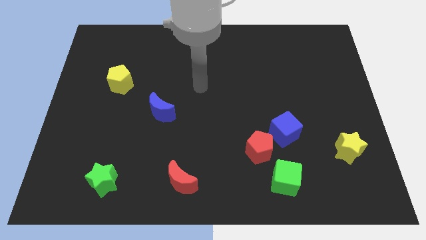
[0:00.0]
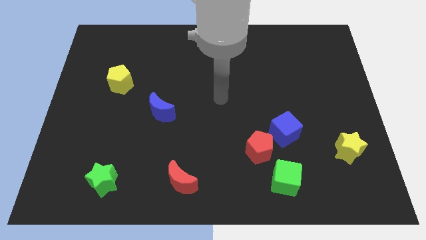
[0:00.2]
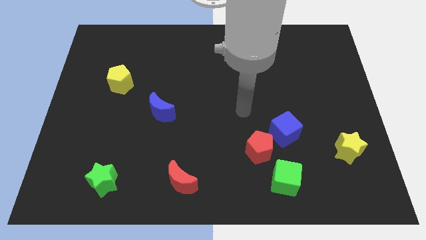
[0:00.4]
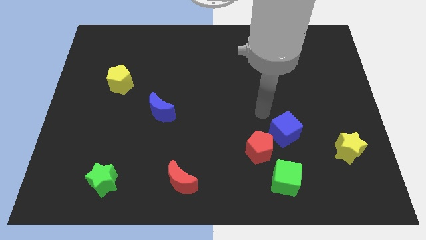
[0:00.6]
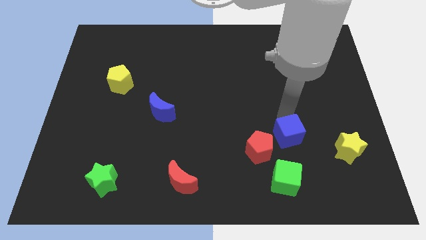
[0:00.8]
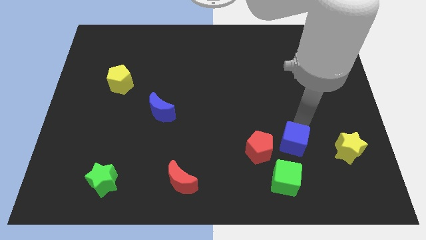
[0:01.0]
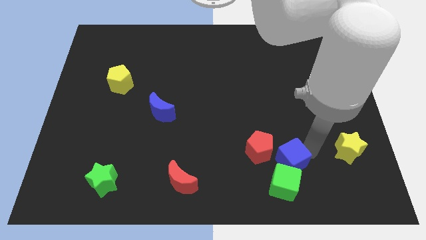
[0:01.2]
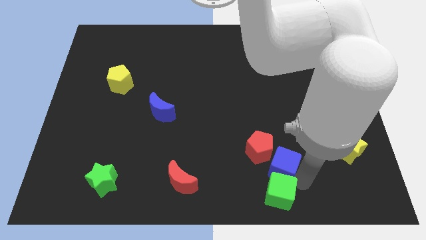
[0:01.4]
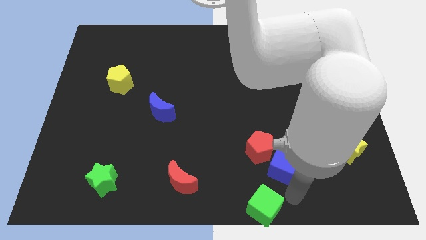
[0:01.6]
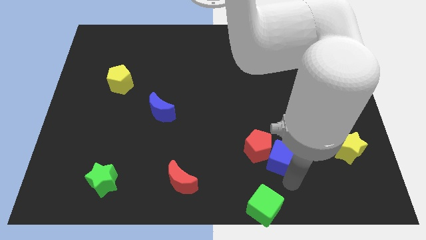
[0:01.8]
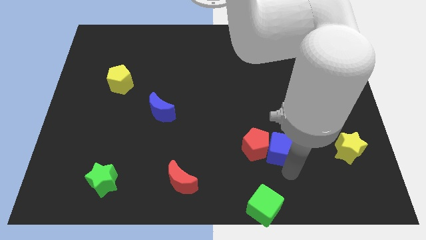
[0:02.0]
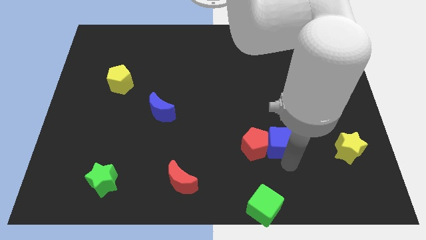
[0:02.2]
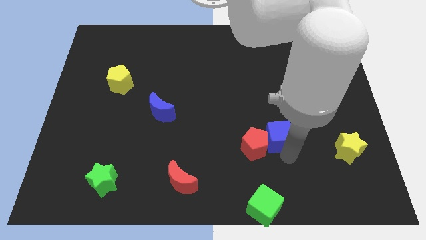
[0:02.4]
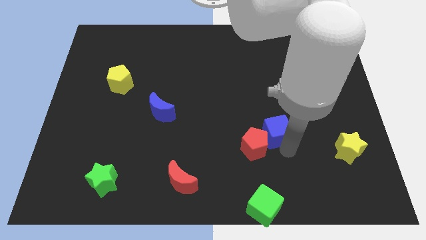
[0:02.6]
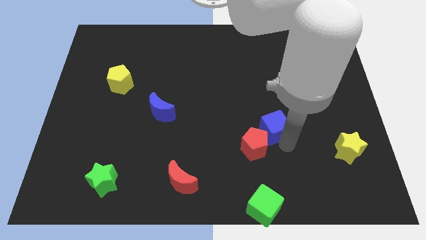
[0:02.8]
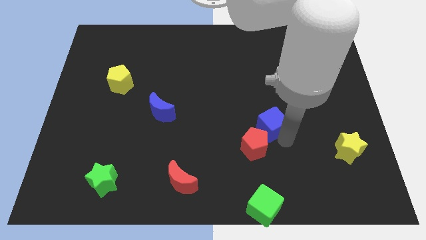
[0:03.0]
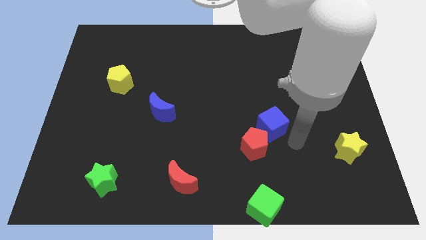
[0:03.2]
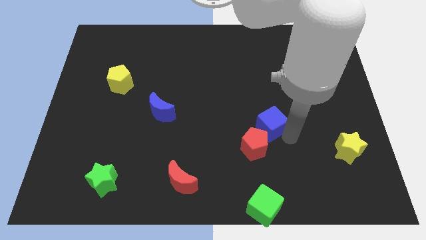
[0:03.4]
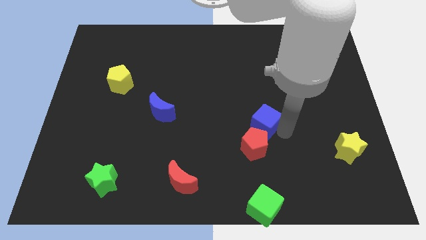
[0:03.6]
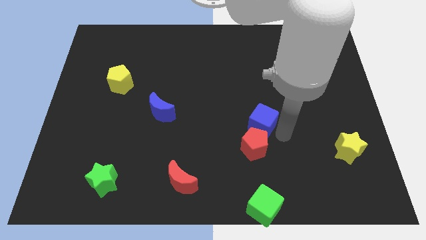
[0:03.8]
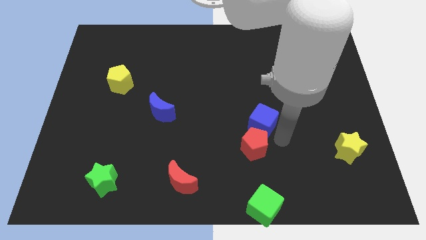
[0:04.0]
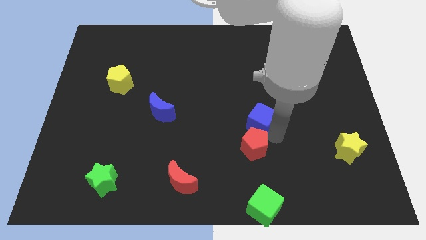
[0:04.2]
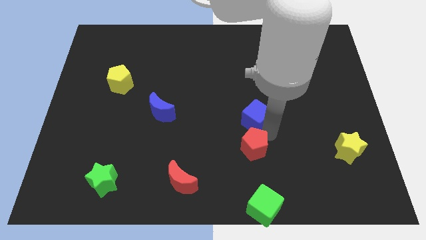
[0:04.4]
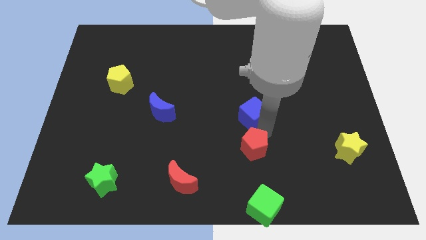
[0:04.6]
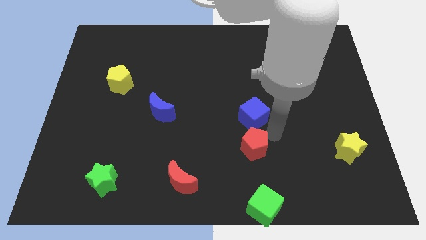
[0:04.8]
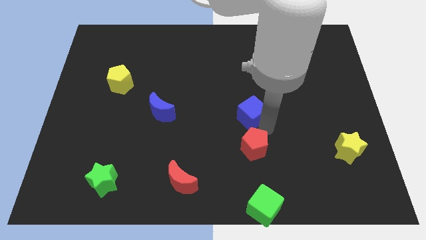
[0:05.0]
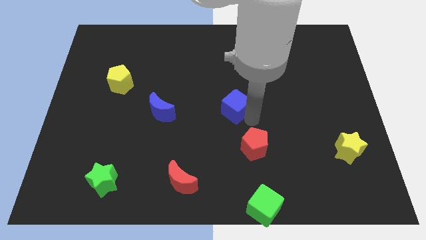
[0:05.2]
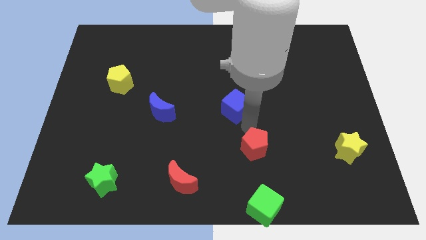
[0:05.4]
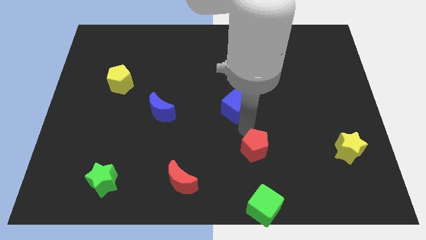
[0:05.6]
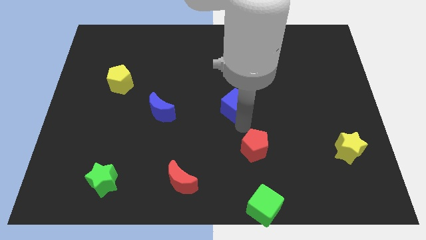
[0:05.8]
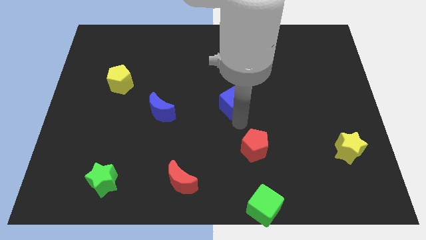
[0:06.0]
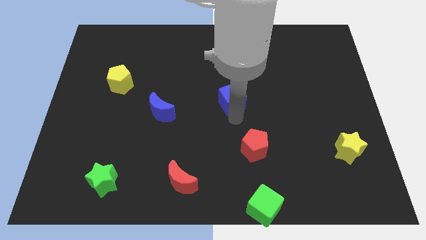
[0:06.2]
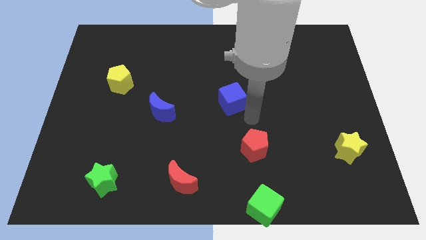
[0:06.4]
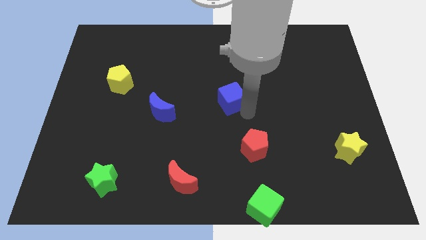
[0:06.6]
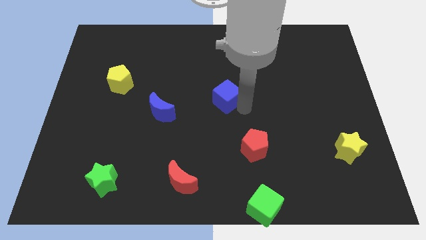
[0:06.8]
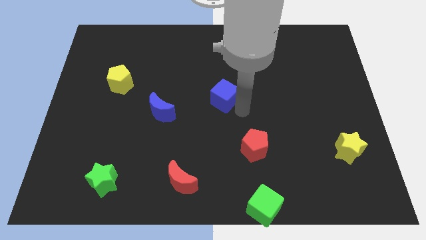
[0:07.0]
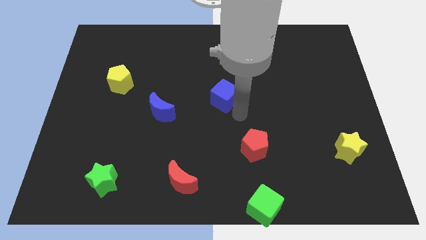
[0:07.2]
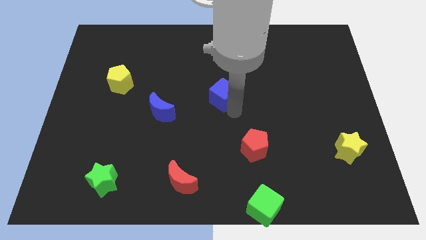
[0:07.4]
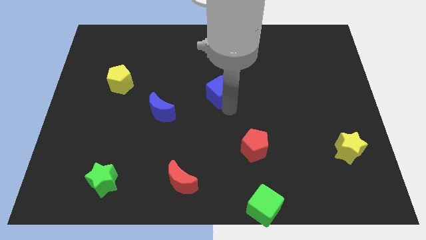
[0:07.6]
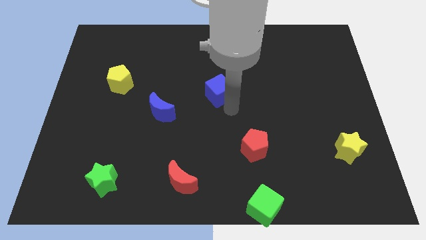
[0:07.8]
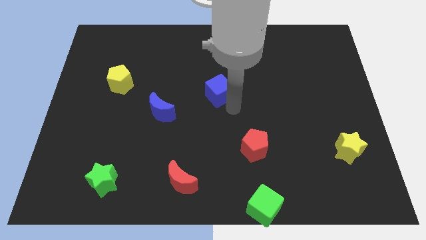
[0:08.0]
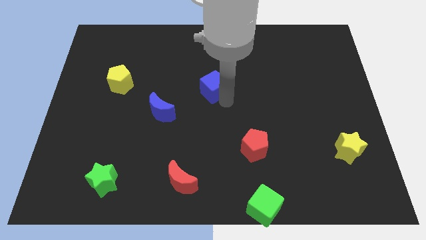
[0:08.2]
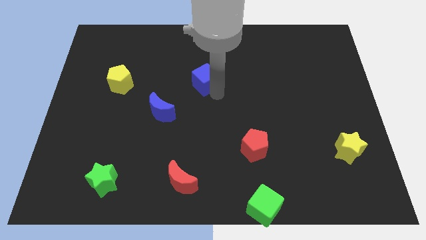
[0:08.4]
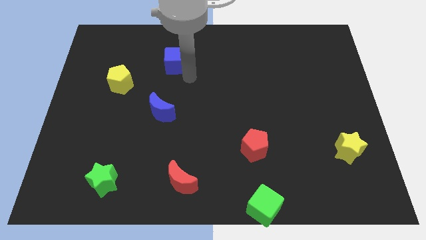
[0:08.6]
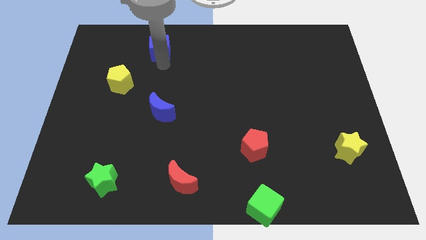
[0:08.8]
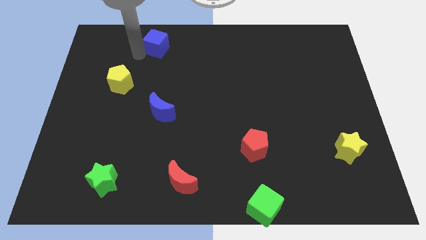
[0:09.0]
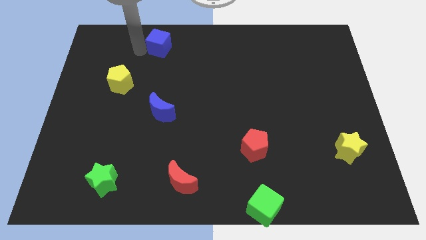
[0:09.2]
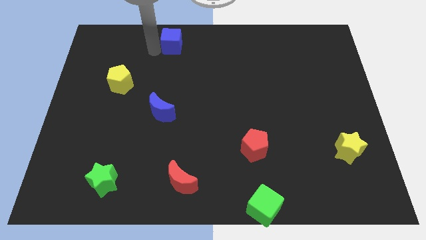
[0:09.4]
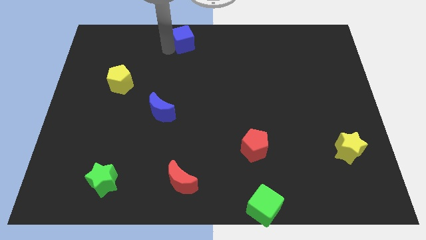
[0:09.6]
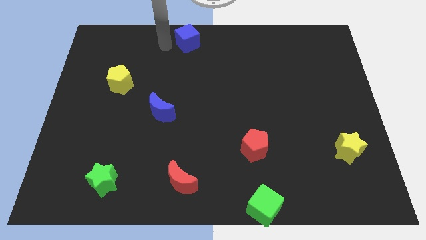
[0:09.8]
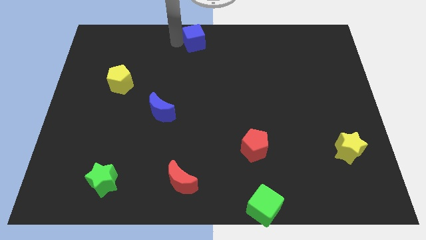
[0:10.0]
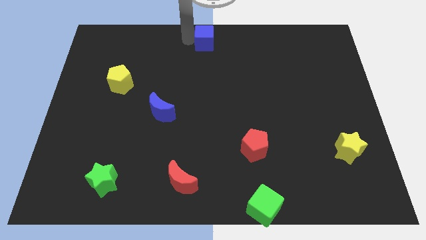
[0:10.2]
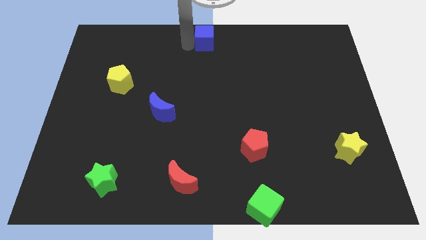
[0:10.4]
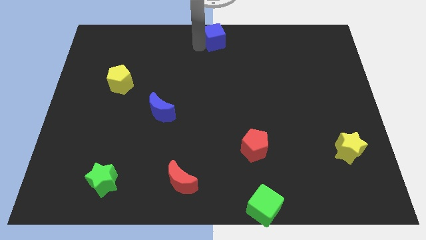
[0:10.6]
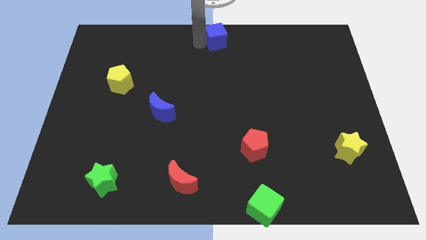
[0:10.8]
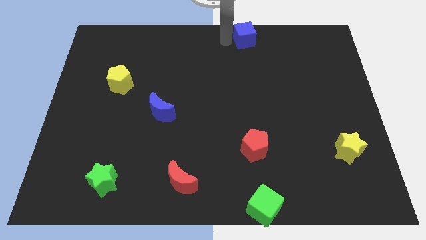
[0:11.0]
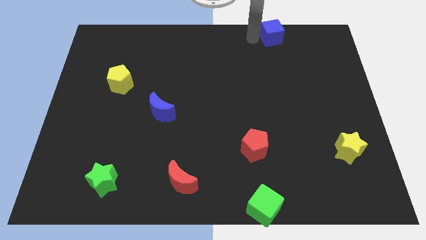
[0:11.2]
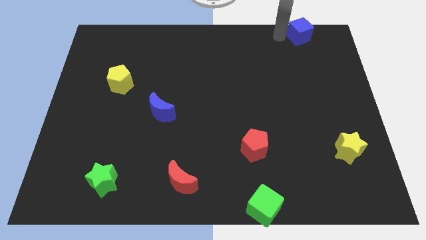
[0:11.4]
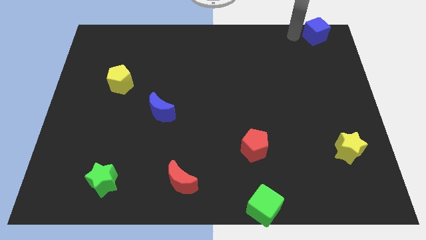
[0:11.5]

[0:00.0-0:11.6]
put the blue cube to the top right corner

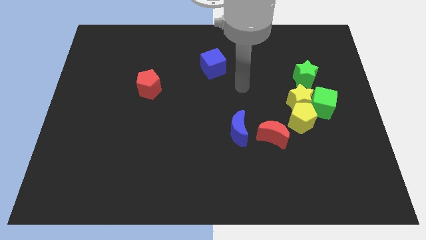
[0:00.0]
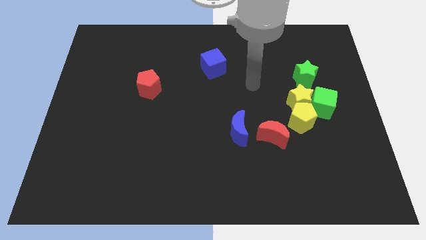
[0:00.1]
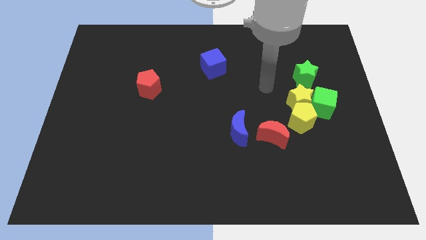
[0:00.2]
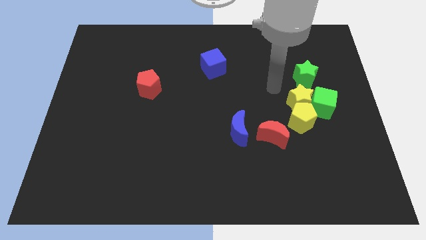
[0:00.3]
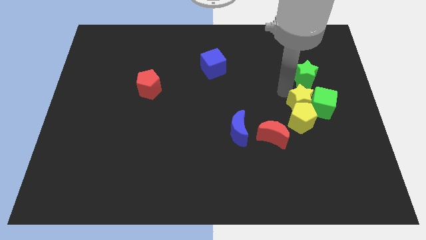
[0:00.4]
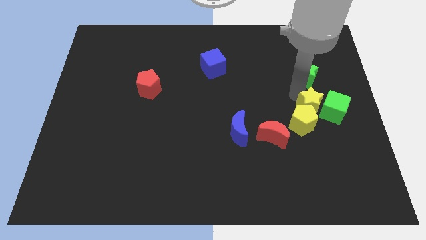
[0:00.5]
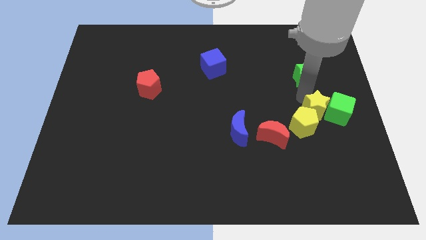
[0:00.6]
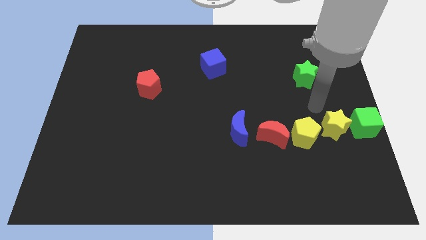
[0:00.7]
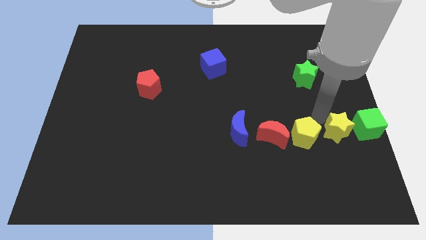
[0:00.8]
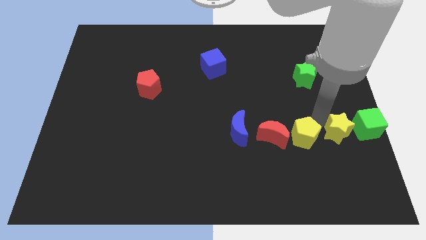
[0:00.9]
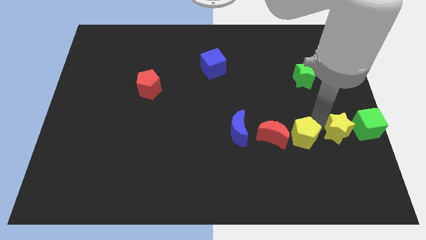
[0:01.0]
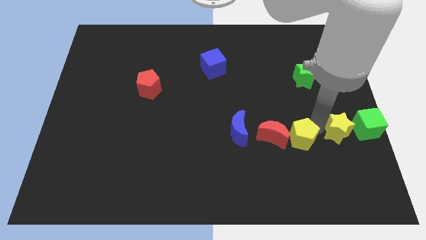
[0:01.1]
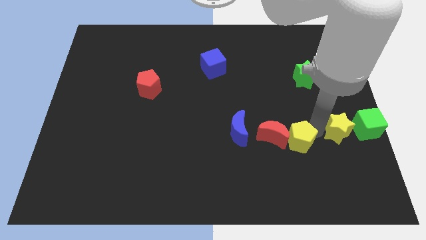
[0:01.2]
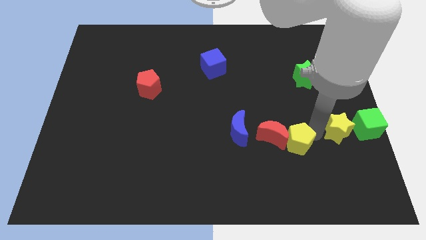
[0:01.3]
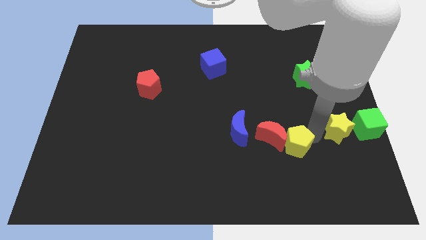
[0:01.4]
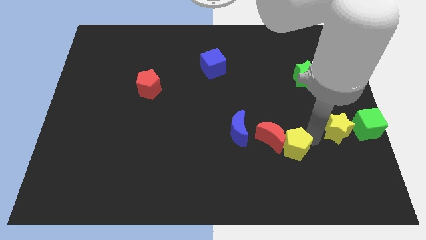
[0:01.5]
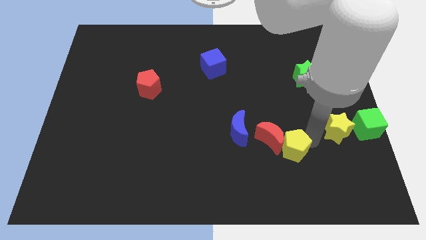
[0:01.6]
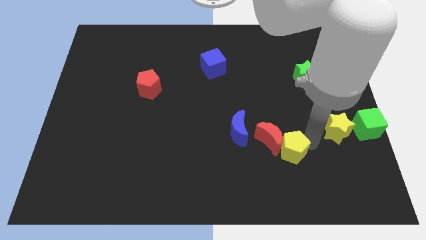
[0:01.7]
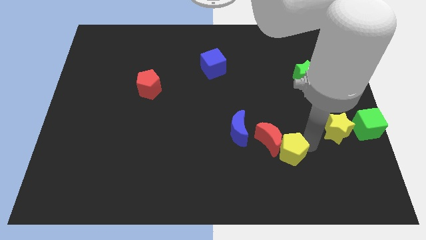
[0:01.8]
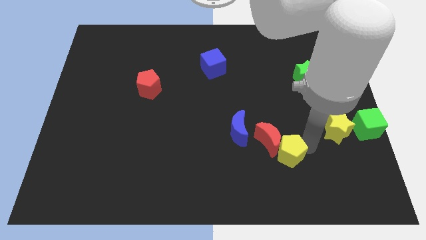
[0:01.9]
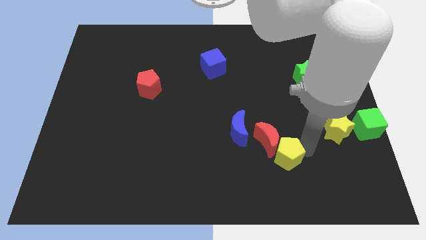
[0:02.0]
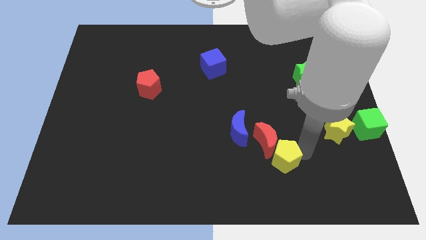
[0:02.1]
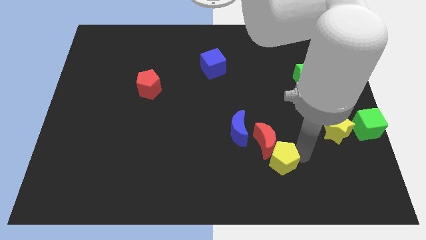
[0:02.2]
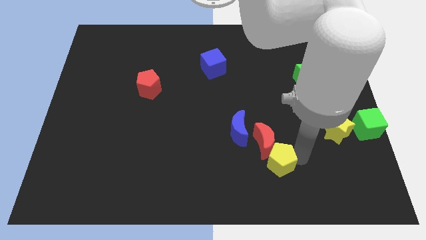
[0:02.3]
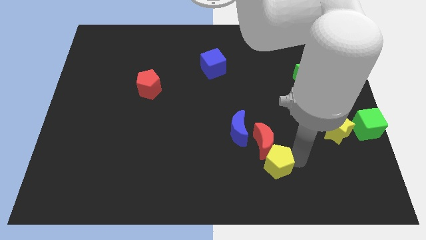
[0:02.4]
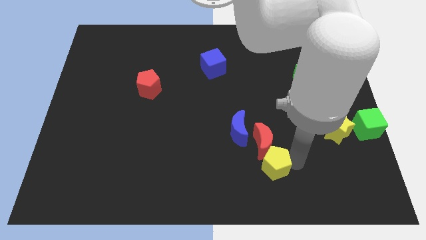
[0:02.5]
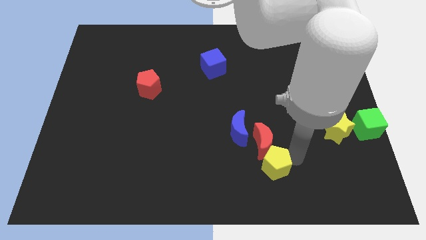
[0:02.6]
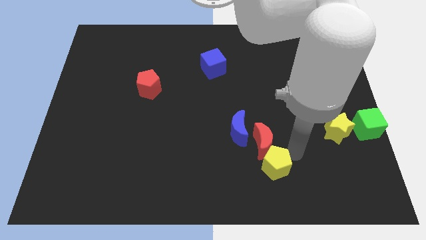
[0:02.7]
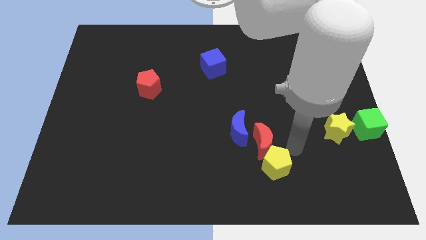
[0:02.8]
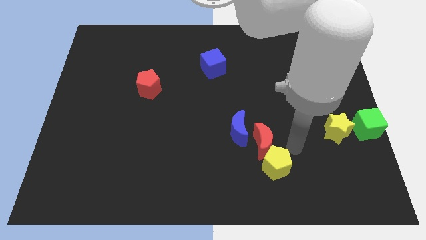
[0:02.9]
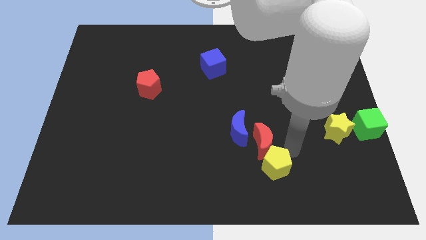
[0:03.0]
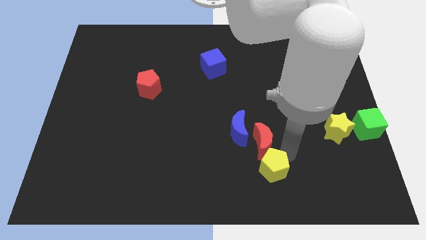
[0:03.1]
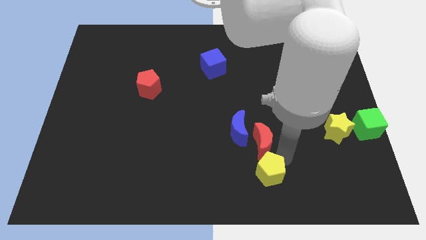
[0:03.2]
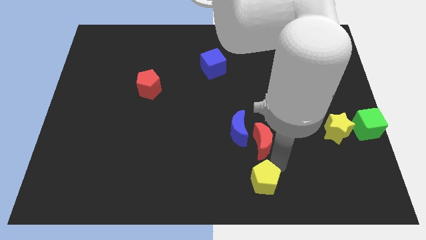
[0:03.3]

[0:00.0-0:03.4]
put the yellow pentagon to the bottom
